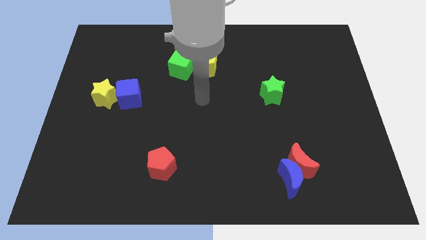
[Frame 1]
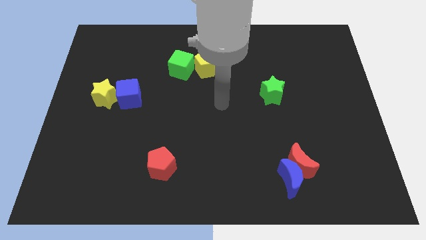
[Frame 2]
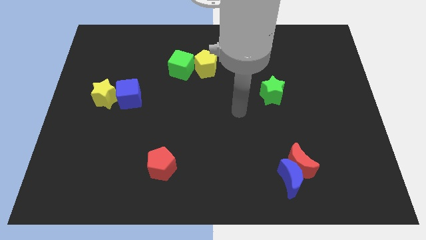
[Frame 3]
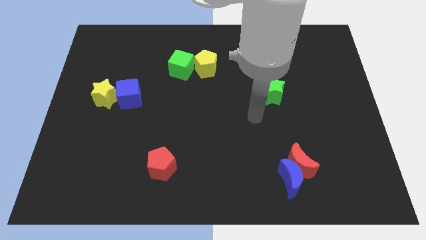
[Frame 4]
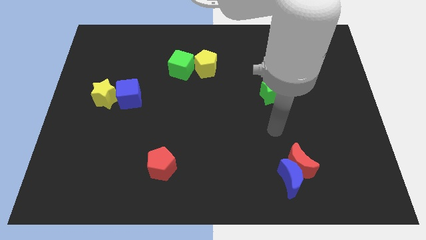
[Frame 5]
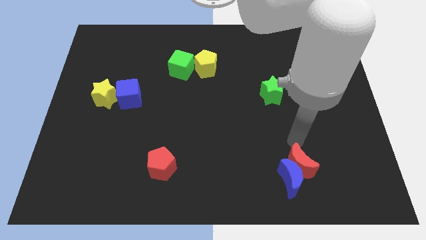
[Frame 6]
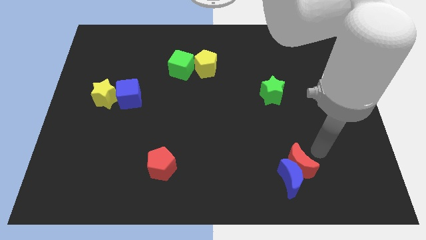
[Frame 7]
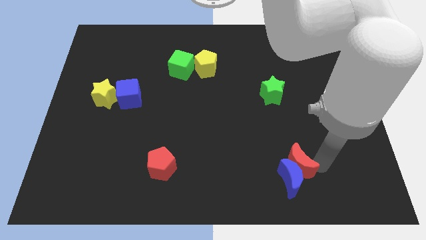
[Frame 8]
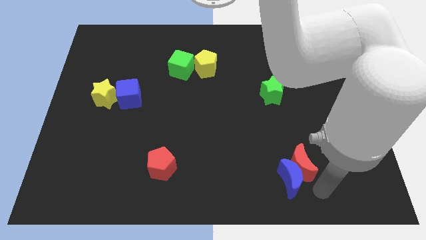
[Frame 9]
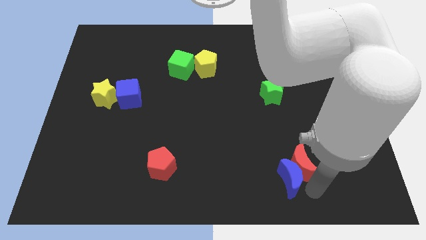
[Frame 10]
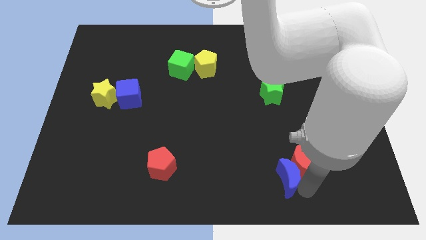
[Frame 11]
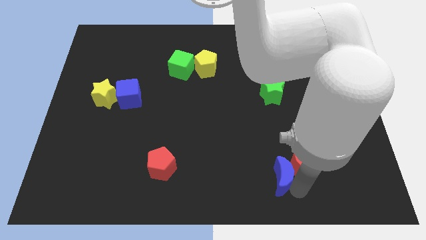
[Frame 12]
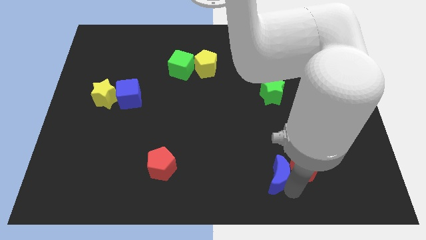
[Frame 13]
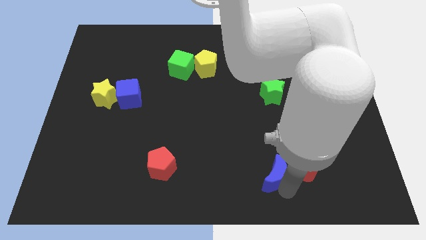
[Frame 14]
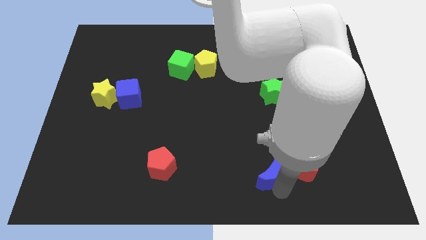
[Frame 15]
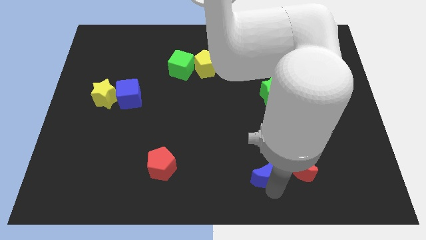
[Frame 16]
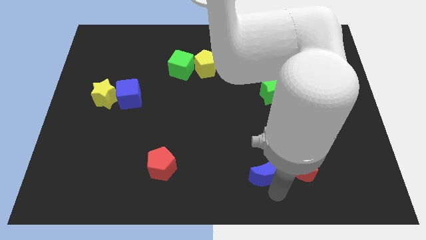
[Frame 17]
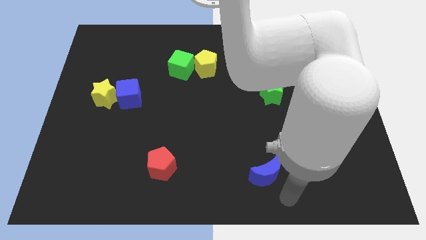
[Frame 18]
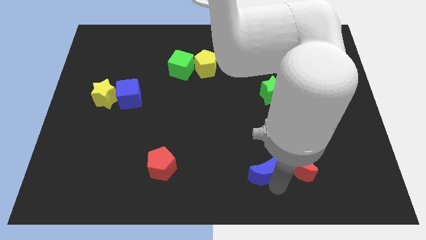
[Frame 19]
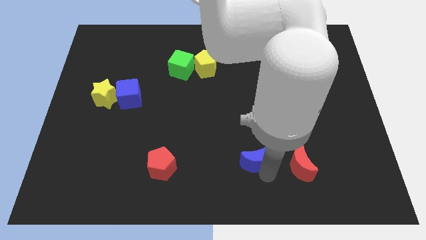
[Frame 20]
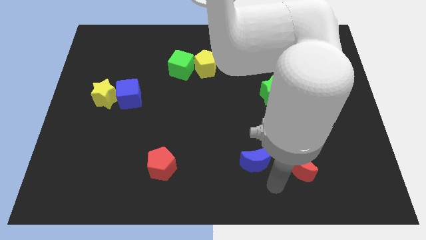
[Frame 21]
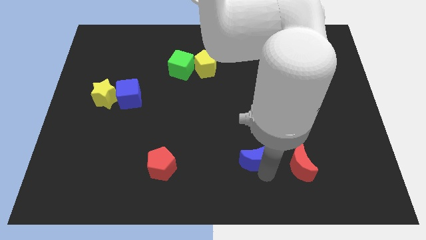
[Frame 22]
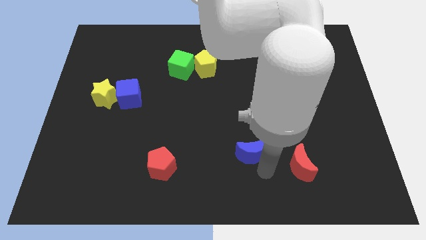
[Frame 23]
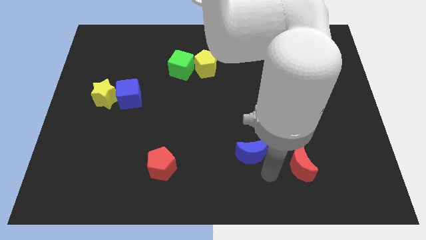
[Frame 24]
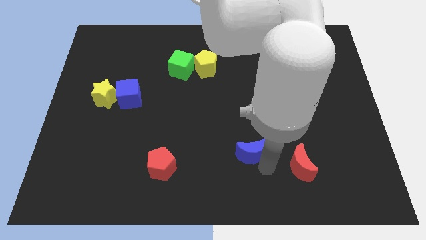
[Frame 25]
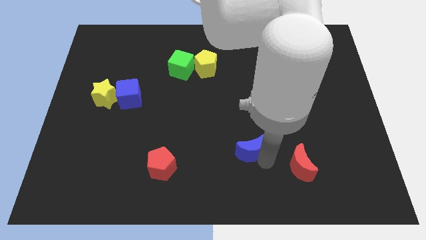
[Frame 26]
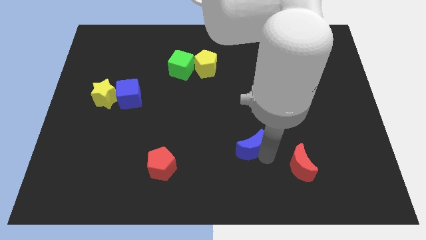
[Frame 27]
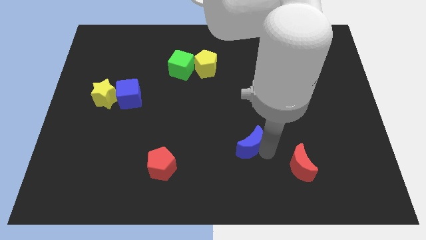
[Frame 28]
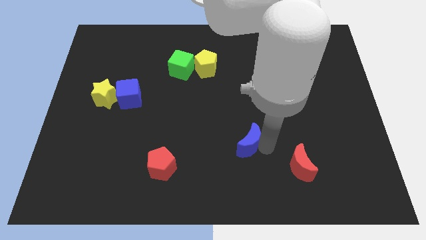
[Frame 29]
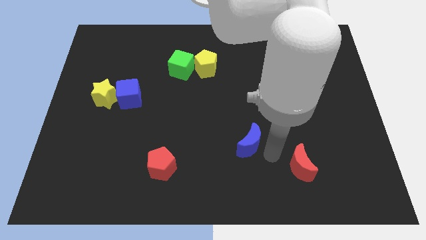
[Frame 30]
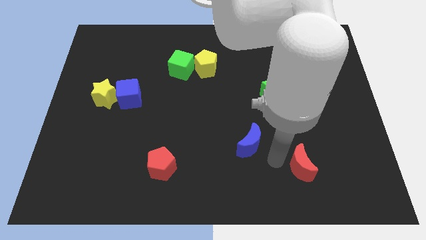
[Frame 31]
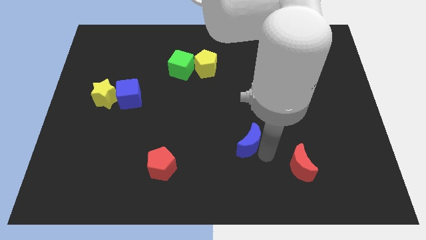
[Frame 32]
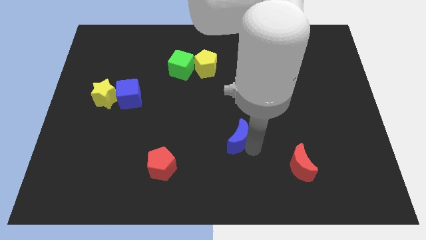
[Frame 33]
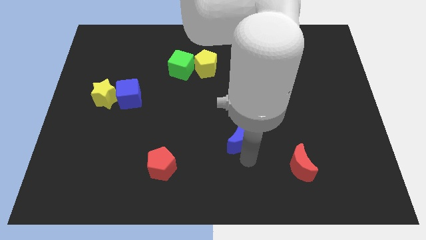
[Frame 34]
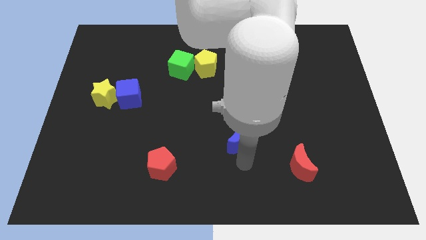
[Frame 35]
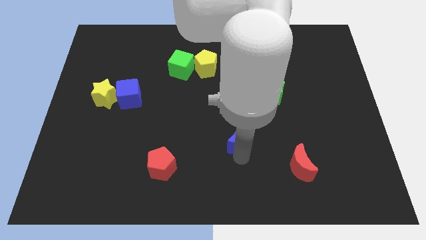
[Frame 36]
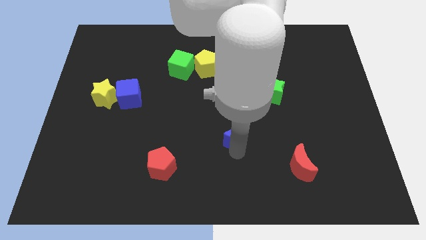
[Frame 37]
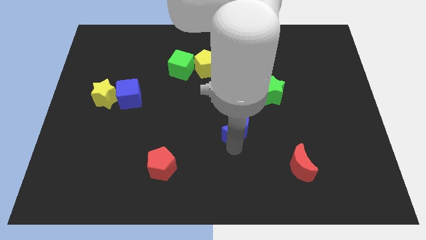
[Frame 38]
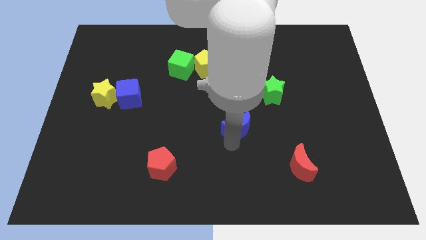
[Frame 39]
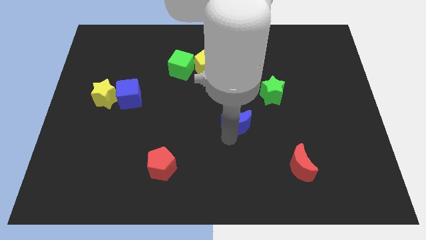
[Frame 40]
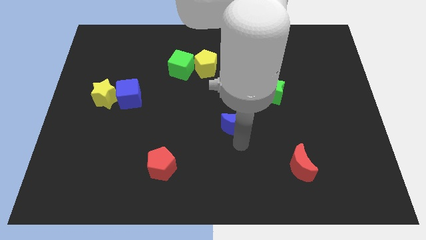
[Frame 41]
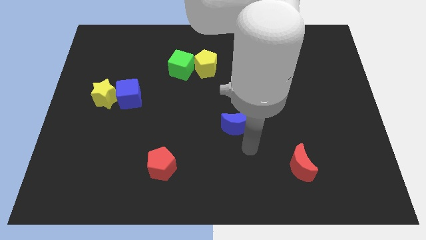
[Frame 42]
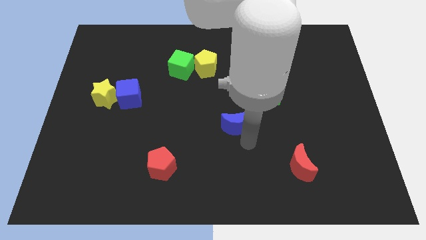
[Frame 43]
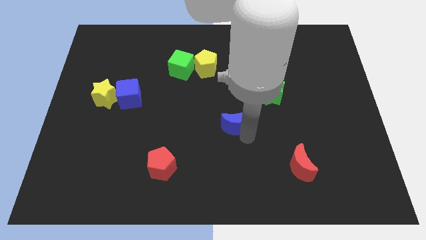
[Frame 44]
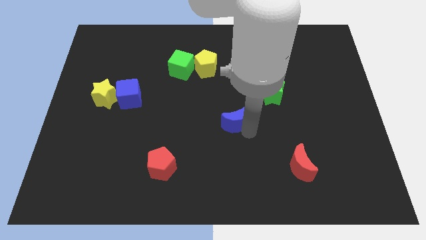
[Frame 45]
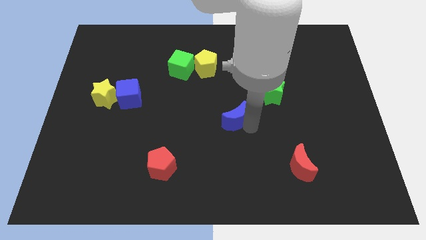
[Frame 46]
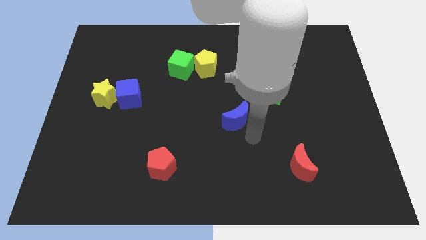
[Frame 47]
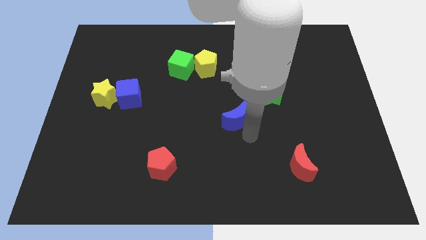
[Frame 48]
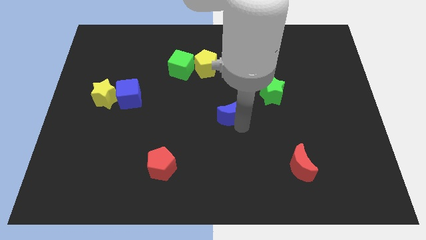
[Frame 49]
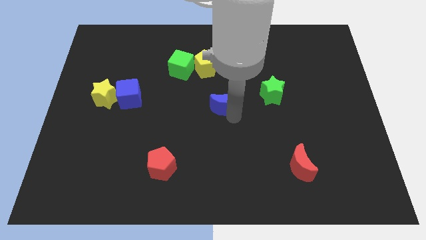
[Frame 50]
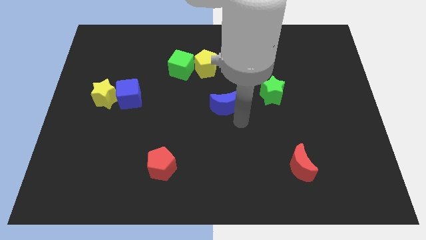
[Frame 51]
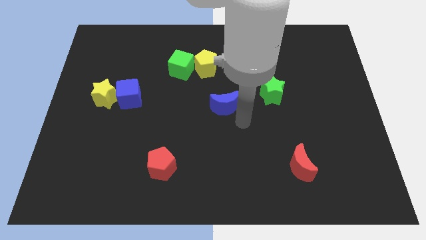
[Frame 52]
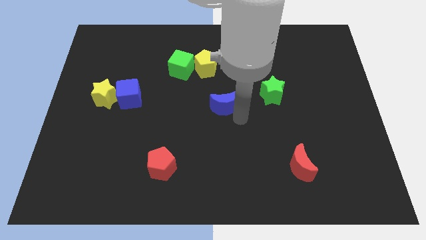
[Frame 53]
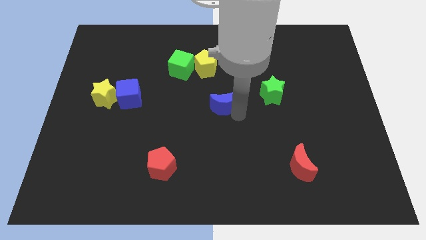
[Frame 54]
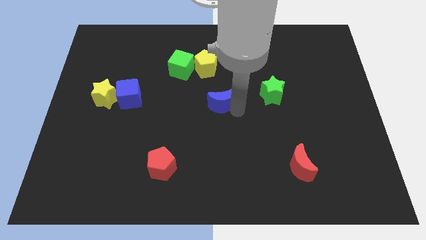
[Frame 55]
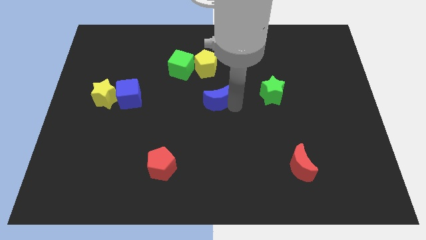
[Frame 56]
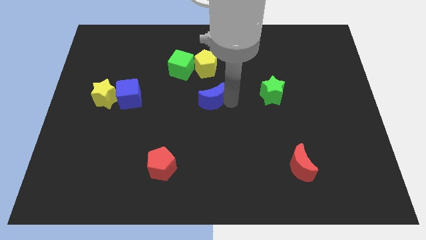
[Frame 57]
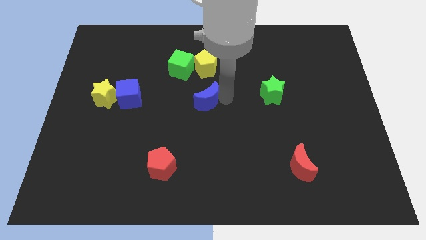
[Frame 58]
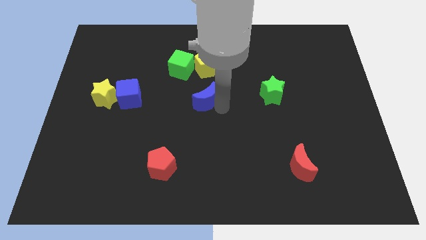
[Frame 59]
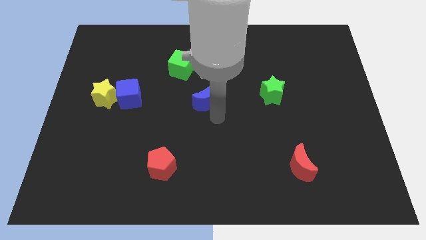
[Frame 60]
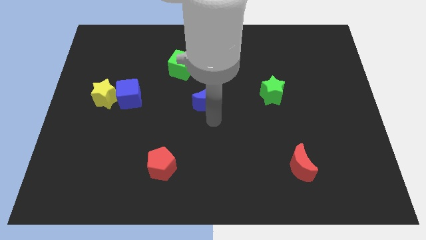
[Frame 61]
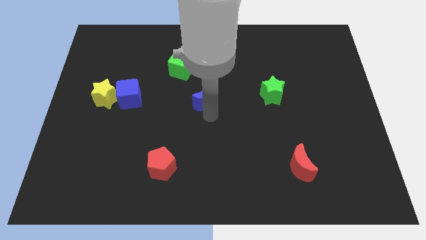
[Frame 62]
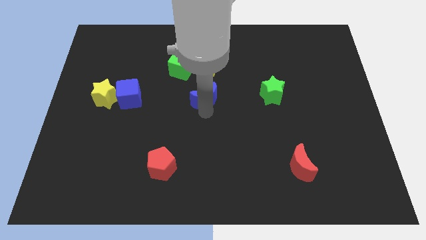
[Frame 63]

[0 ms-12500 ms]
move the blue moon diagonally down and to the right of the green cube

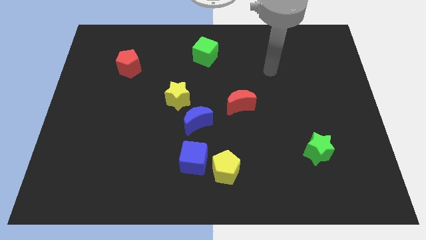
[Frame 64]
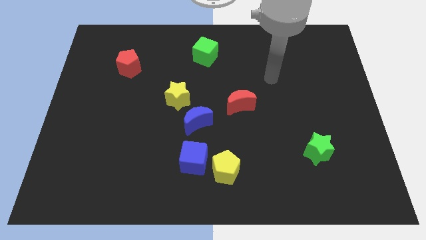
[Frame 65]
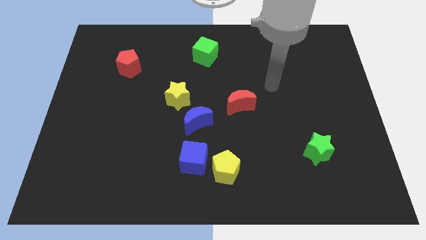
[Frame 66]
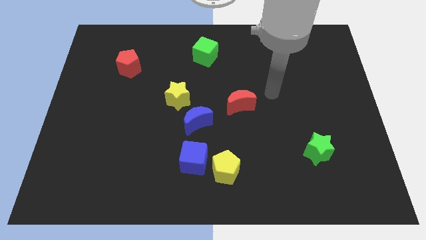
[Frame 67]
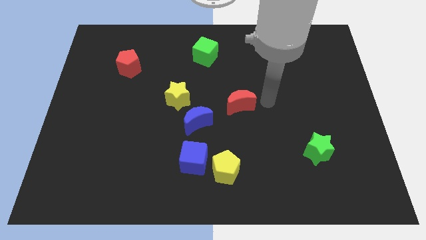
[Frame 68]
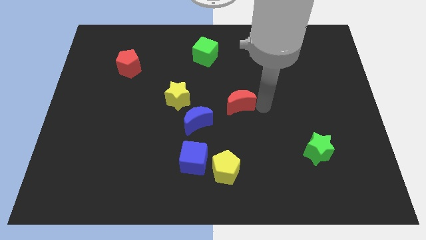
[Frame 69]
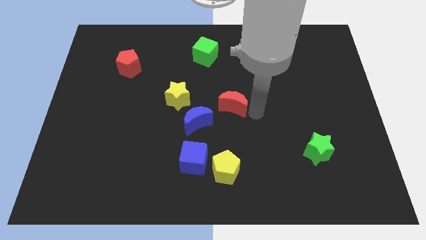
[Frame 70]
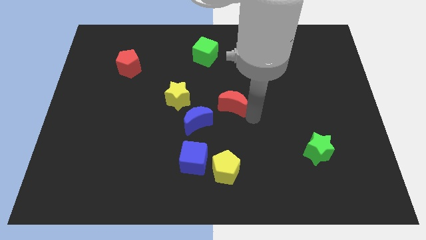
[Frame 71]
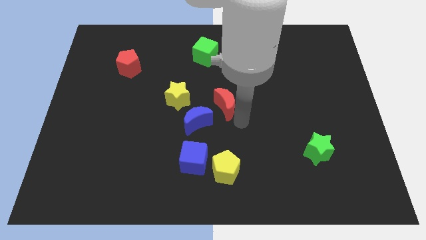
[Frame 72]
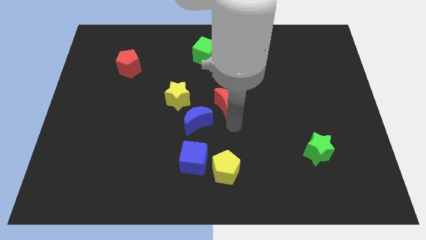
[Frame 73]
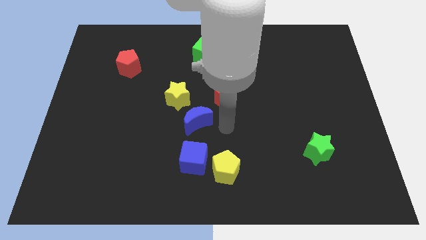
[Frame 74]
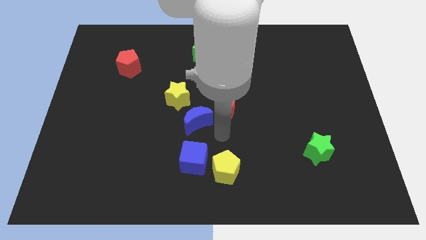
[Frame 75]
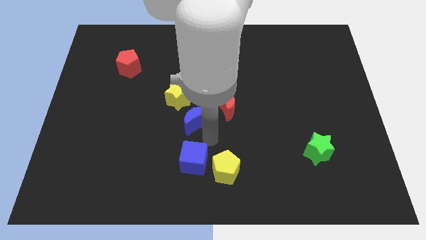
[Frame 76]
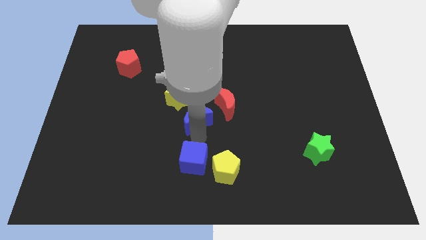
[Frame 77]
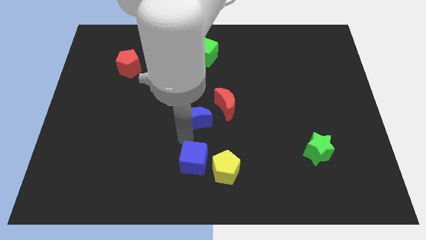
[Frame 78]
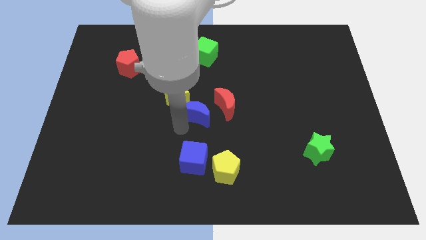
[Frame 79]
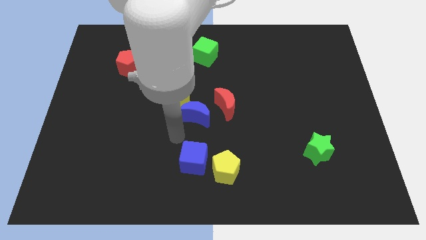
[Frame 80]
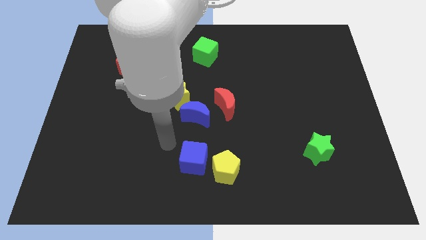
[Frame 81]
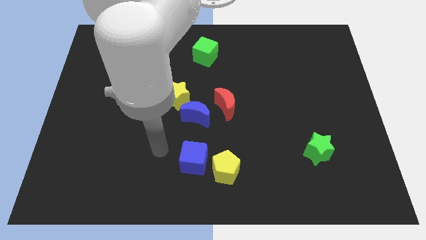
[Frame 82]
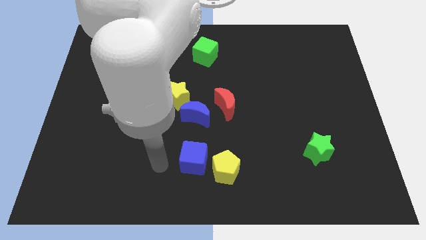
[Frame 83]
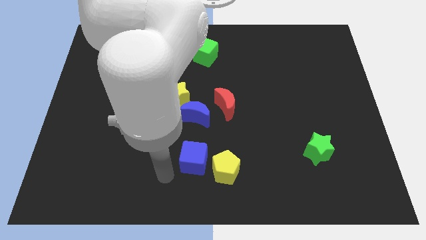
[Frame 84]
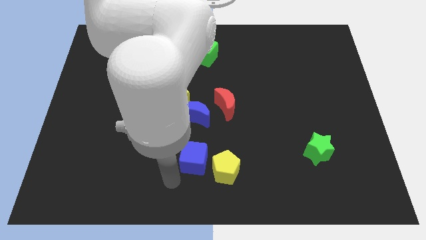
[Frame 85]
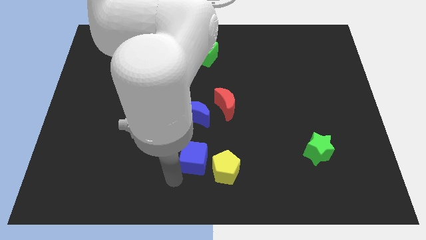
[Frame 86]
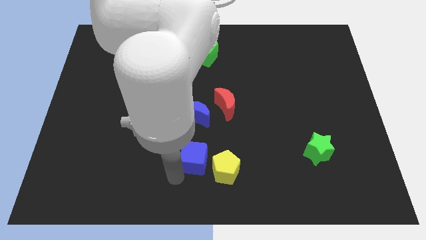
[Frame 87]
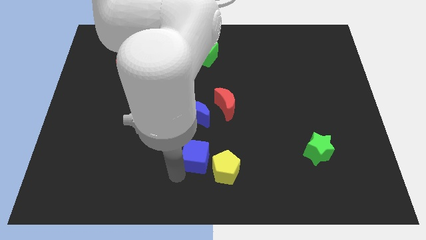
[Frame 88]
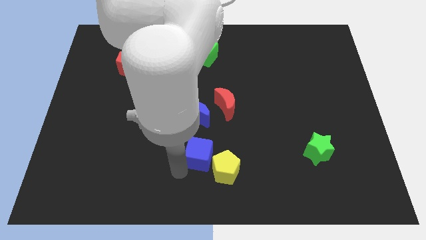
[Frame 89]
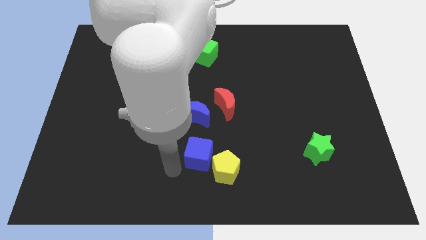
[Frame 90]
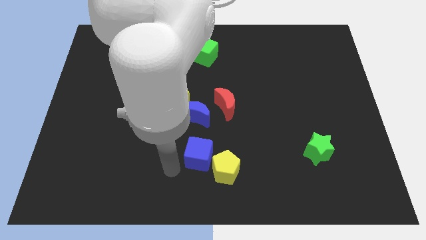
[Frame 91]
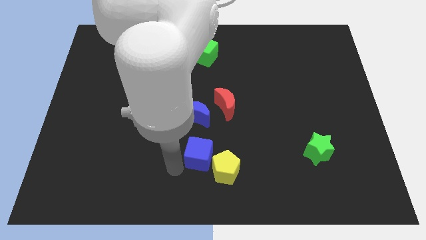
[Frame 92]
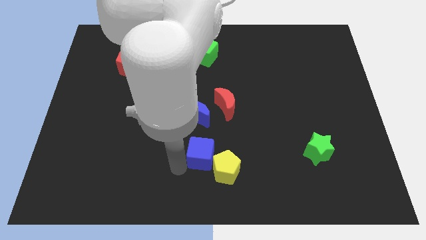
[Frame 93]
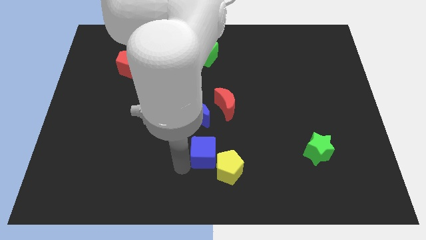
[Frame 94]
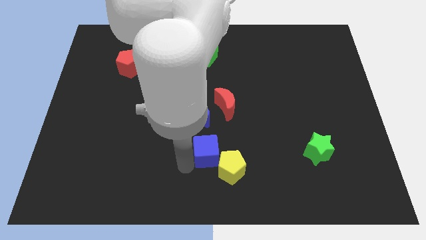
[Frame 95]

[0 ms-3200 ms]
slide the blue cube to the bottom side of the red moon
